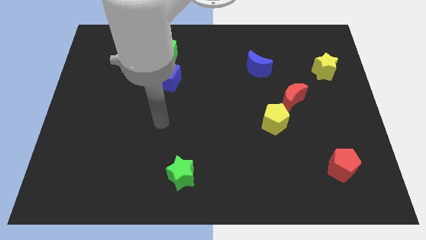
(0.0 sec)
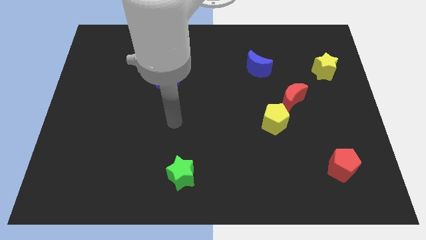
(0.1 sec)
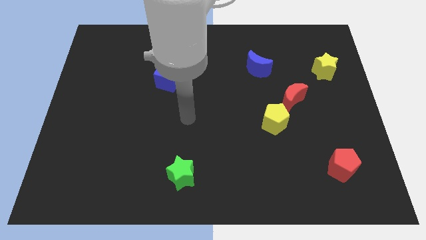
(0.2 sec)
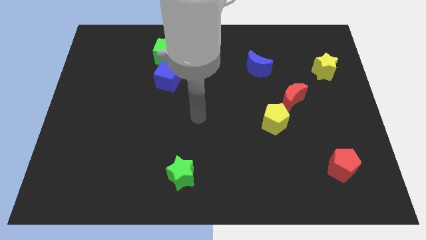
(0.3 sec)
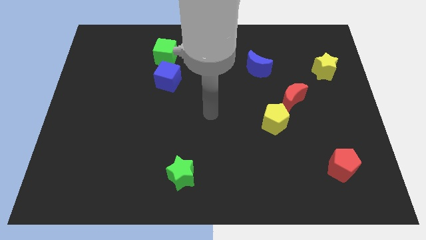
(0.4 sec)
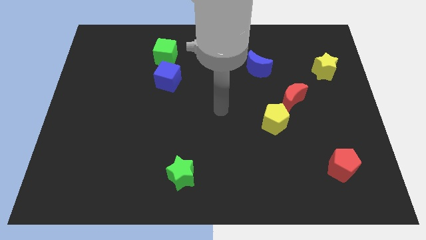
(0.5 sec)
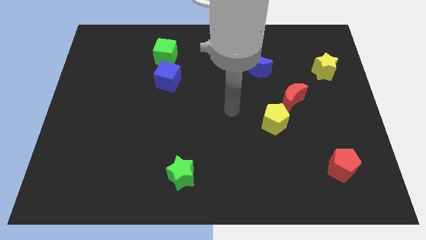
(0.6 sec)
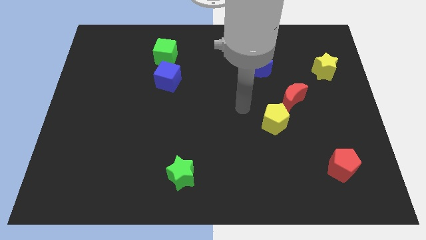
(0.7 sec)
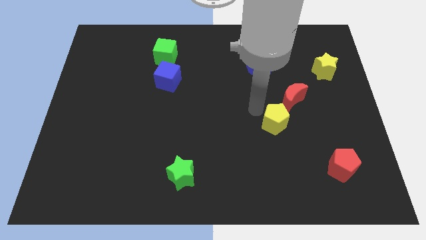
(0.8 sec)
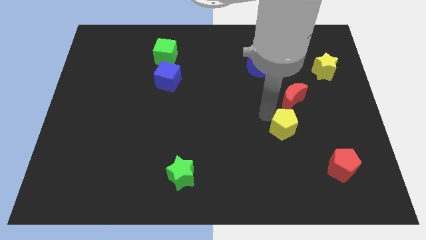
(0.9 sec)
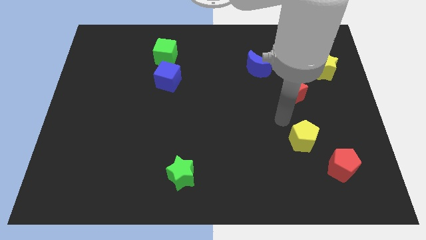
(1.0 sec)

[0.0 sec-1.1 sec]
move the red moon away from the yellow pentagon

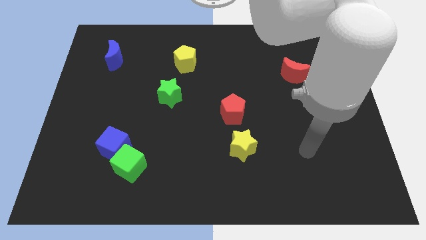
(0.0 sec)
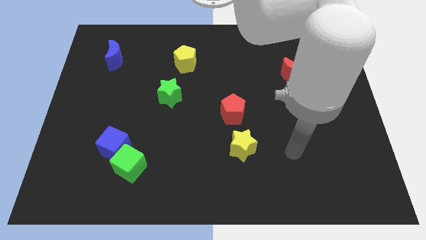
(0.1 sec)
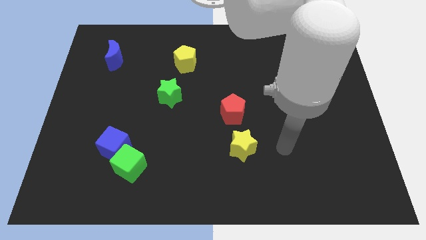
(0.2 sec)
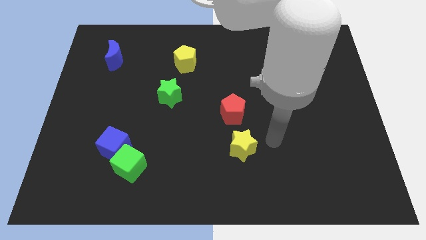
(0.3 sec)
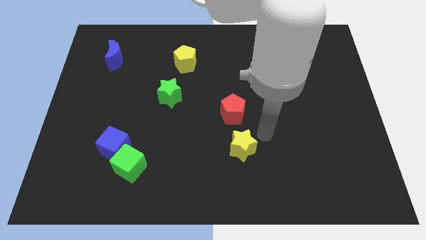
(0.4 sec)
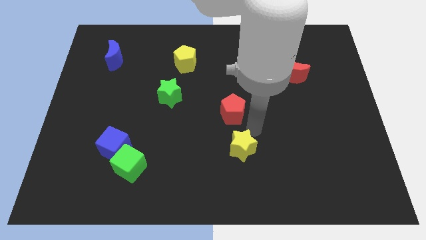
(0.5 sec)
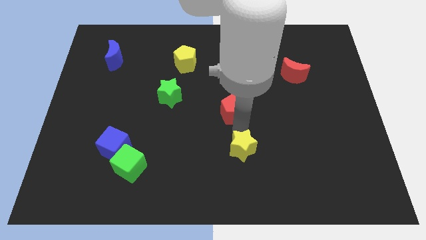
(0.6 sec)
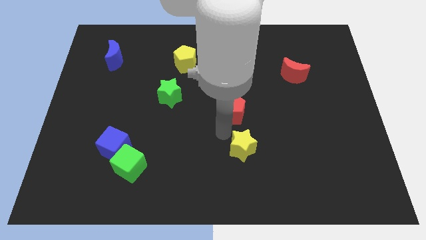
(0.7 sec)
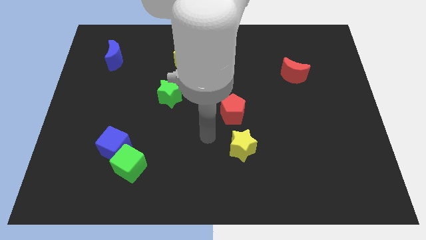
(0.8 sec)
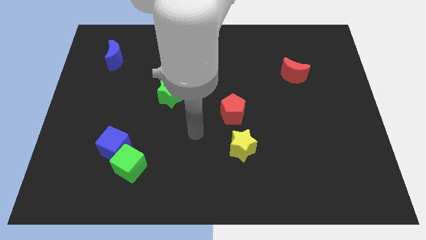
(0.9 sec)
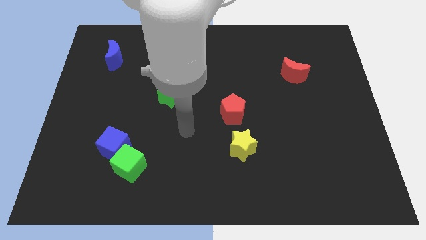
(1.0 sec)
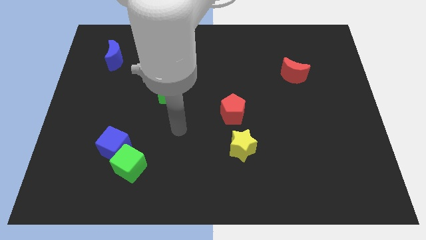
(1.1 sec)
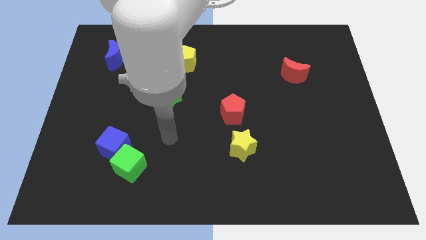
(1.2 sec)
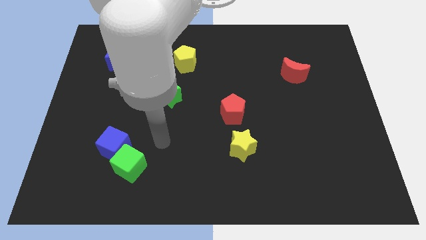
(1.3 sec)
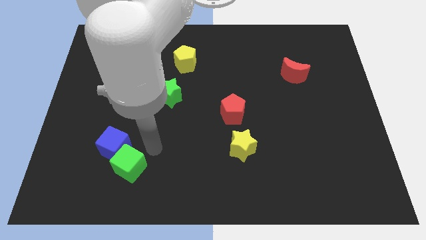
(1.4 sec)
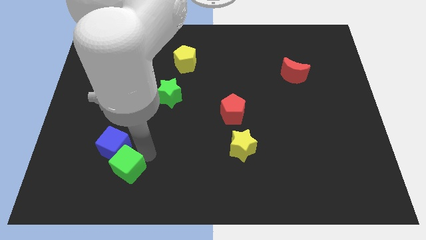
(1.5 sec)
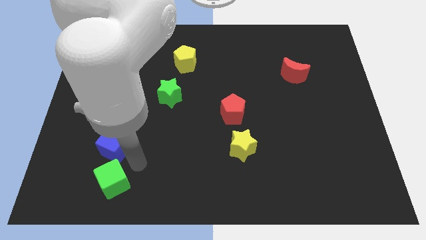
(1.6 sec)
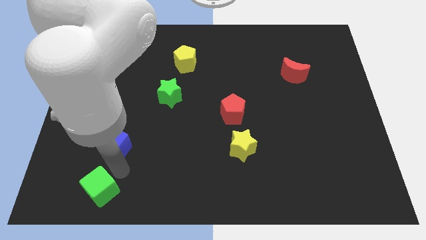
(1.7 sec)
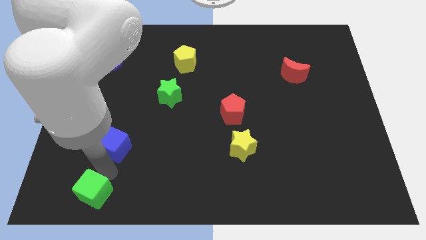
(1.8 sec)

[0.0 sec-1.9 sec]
pull the blue cube apart from the green cube

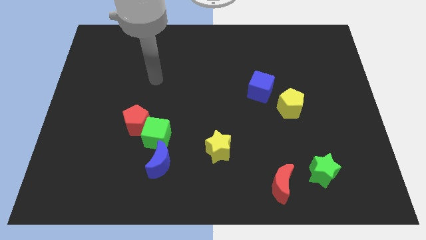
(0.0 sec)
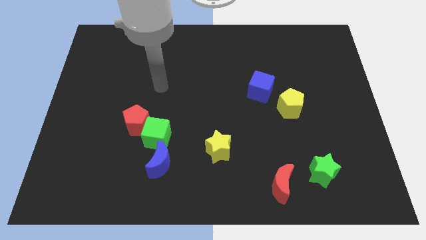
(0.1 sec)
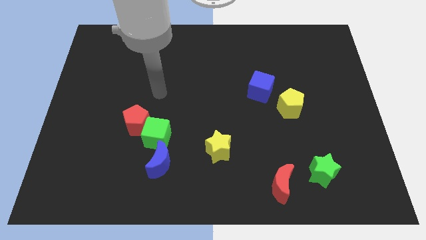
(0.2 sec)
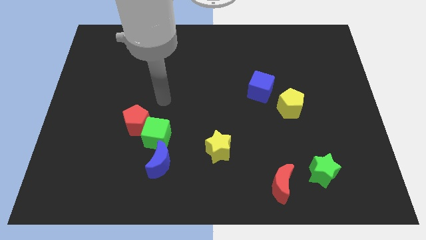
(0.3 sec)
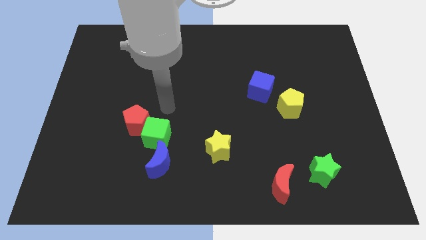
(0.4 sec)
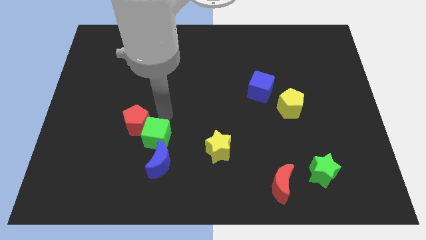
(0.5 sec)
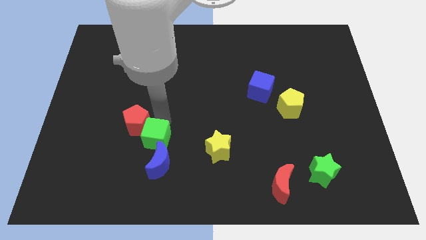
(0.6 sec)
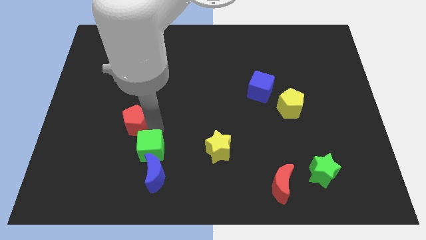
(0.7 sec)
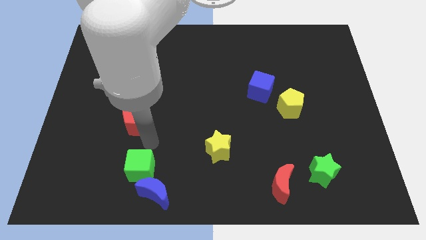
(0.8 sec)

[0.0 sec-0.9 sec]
separate the red pentagon from the green cube

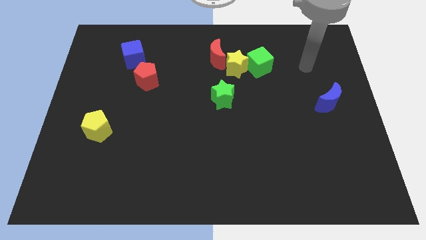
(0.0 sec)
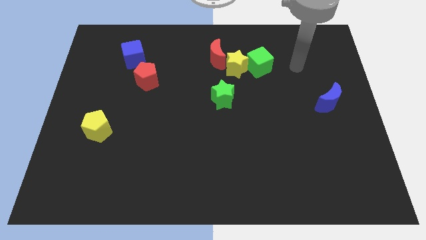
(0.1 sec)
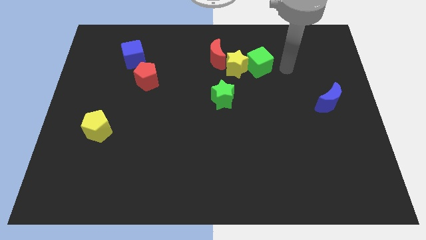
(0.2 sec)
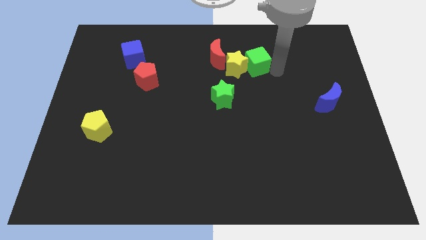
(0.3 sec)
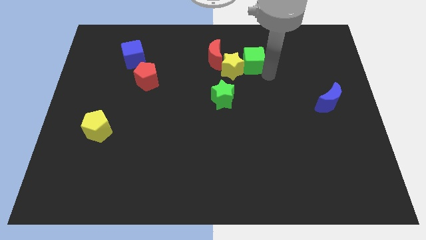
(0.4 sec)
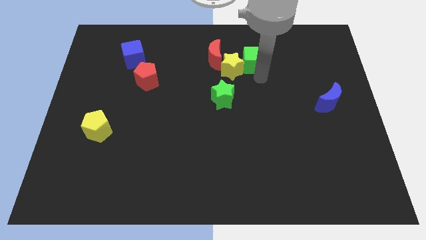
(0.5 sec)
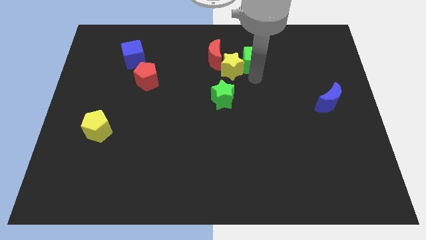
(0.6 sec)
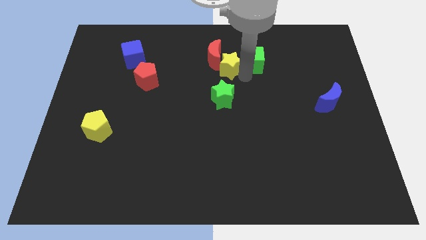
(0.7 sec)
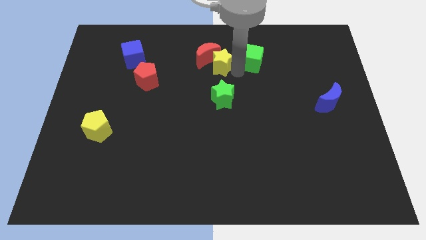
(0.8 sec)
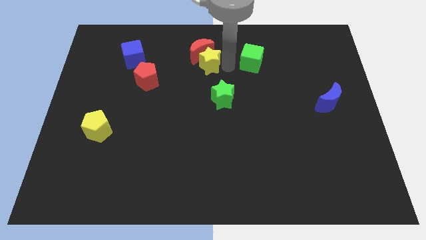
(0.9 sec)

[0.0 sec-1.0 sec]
pull the green cube apart from the yellow star

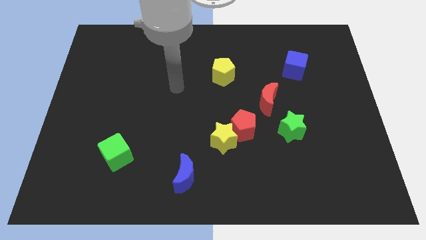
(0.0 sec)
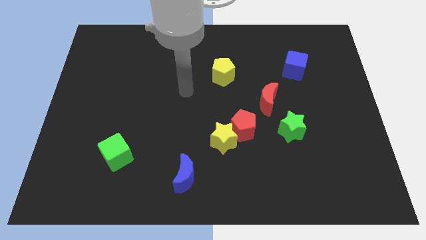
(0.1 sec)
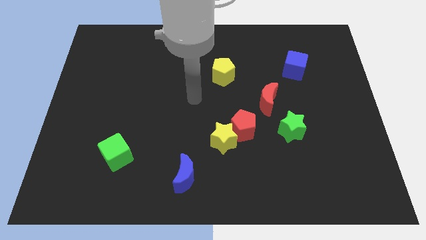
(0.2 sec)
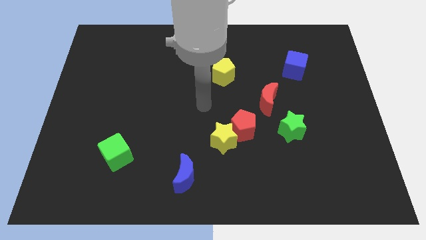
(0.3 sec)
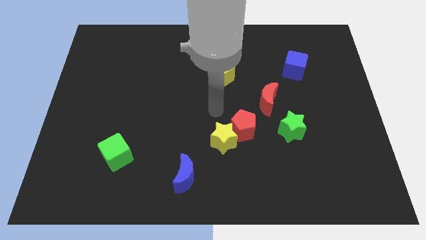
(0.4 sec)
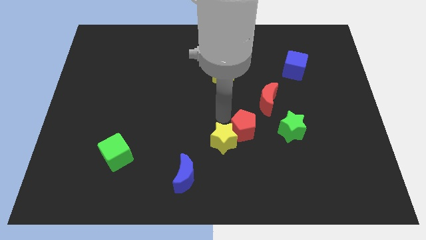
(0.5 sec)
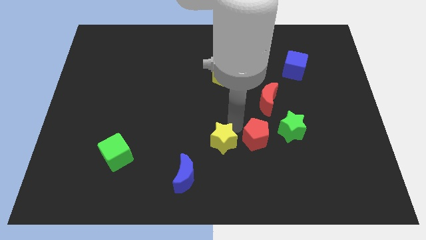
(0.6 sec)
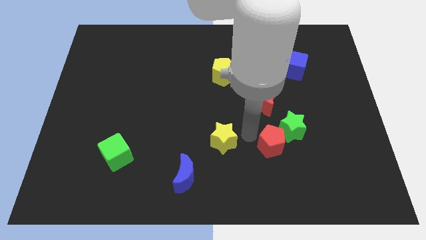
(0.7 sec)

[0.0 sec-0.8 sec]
pull the yellow star apart from the red pentagon

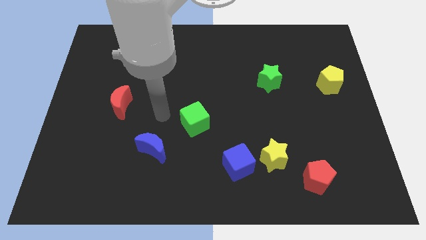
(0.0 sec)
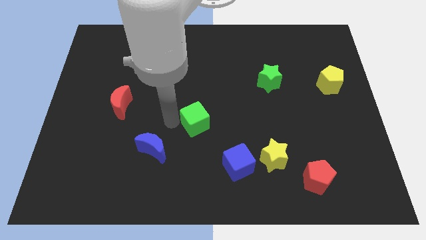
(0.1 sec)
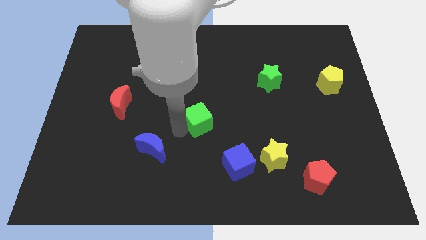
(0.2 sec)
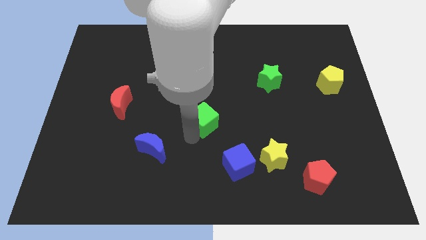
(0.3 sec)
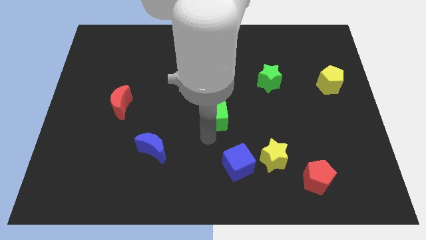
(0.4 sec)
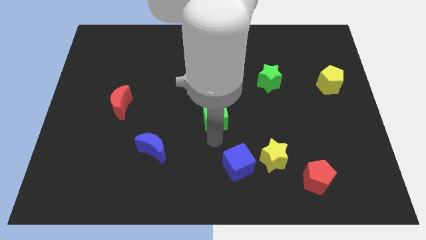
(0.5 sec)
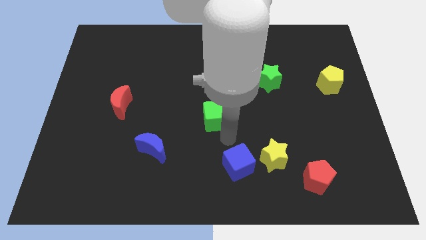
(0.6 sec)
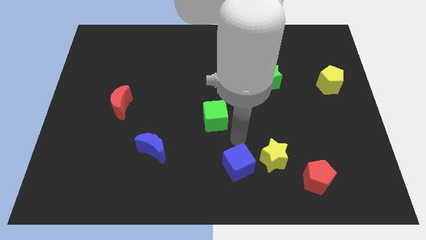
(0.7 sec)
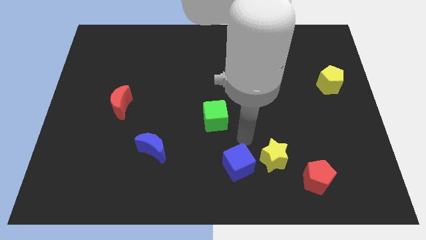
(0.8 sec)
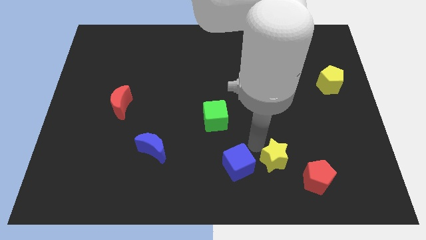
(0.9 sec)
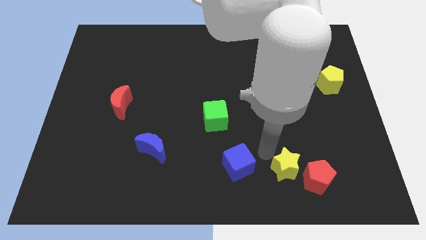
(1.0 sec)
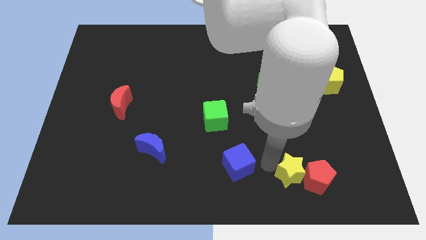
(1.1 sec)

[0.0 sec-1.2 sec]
separate the blue cube from the yellow star

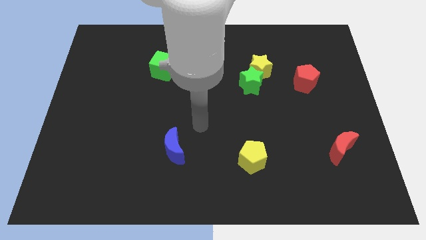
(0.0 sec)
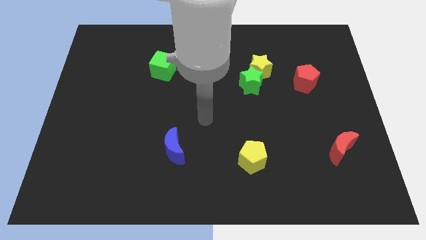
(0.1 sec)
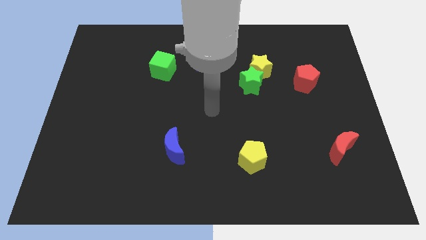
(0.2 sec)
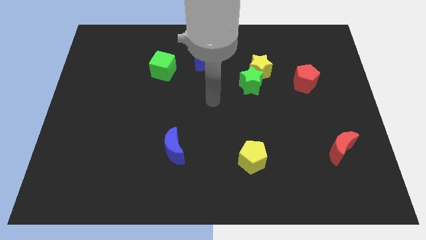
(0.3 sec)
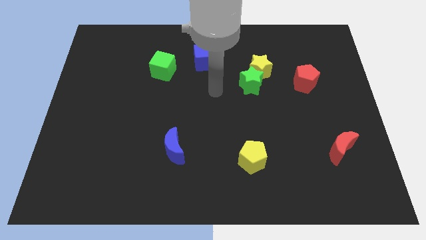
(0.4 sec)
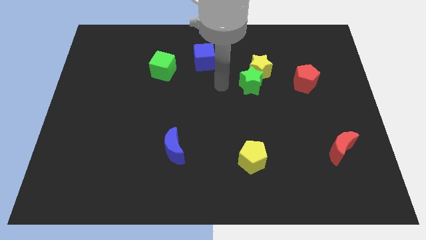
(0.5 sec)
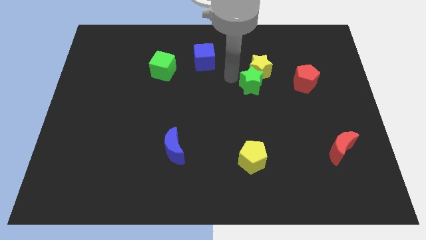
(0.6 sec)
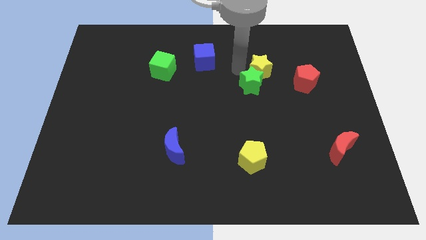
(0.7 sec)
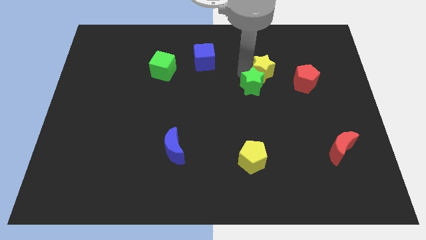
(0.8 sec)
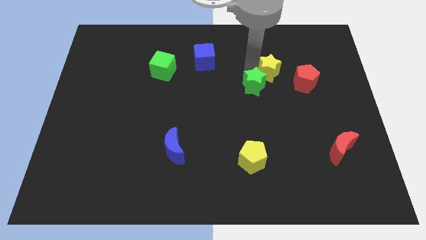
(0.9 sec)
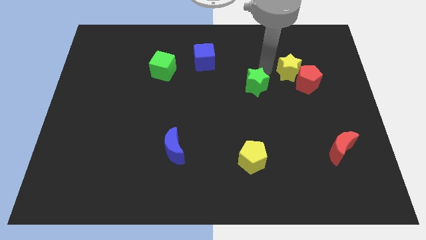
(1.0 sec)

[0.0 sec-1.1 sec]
move the green star away from the yellow star

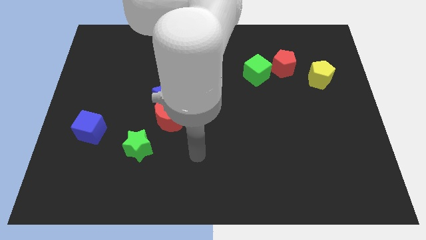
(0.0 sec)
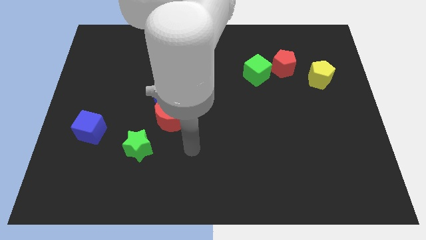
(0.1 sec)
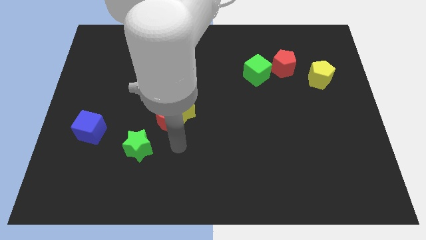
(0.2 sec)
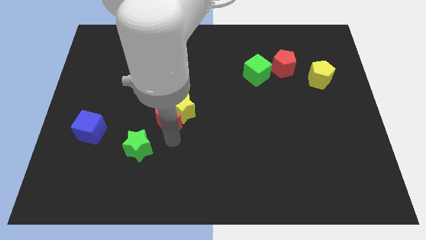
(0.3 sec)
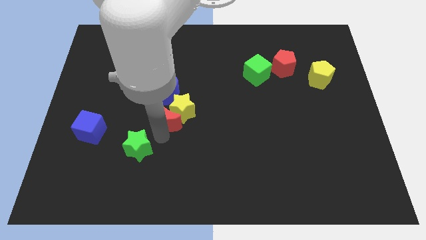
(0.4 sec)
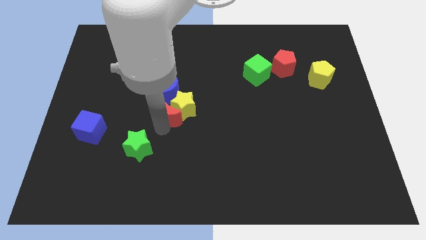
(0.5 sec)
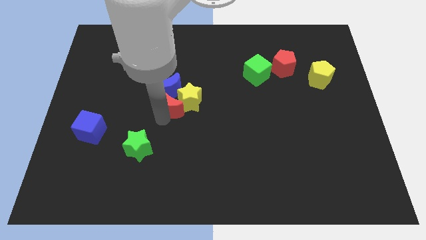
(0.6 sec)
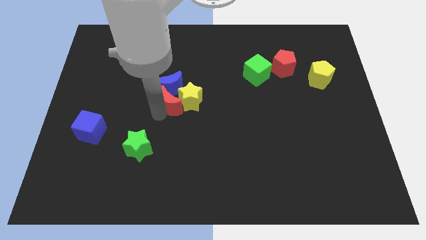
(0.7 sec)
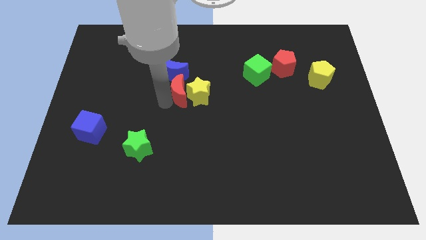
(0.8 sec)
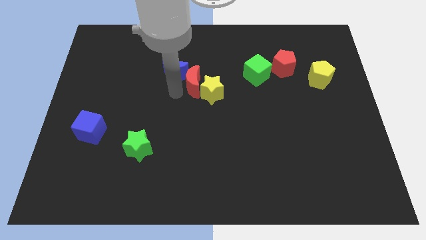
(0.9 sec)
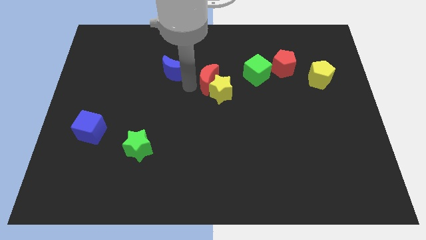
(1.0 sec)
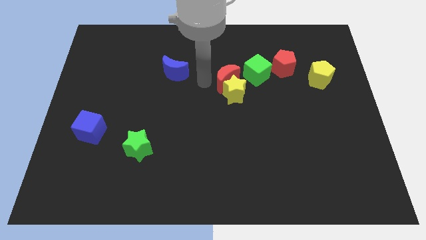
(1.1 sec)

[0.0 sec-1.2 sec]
pull the yellow star apart from the red moon and blue moon
